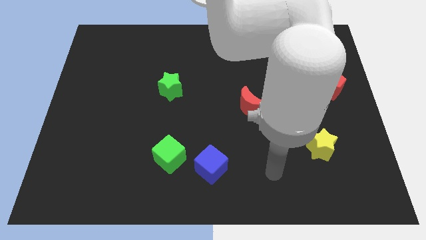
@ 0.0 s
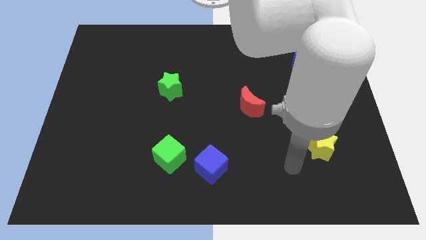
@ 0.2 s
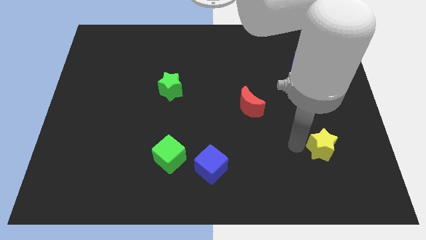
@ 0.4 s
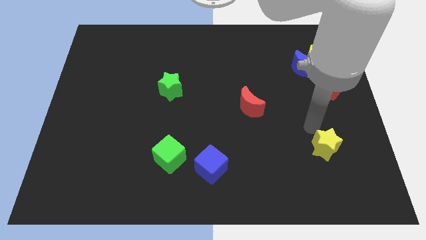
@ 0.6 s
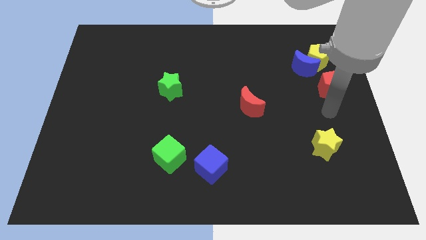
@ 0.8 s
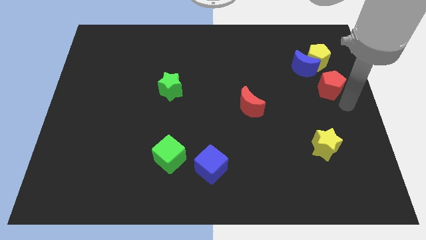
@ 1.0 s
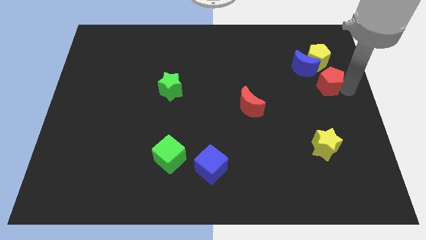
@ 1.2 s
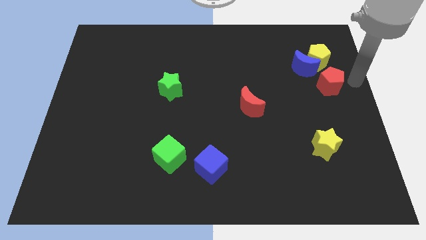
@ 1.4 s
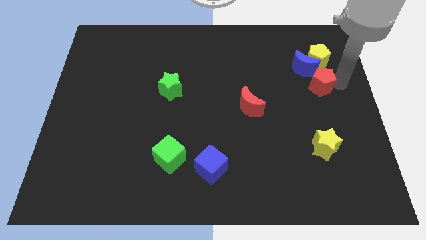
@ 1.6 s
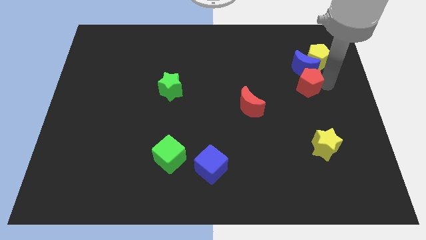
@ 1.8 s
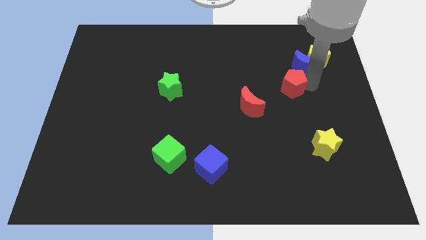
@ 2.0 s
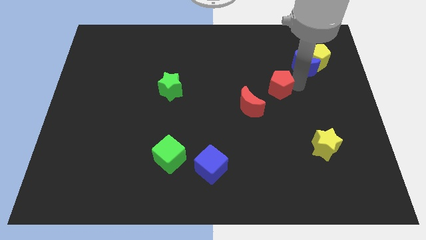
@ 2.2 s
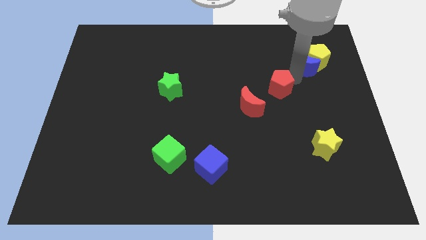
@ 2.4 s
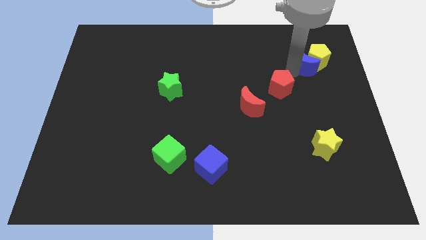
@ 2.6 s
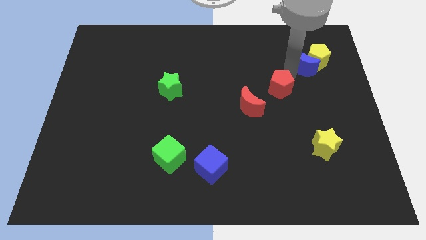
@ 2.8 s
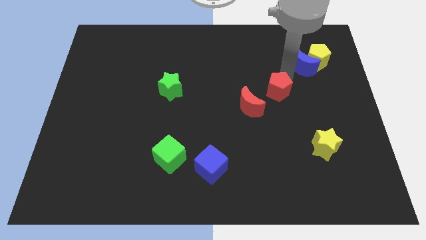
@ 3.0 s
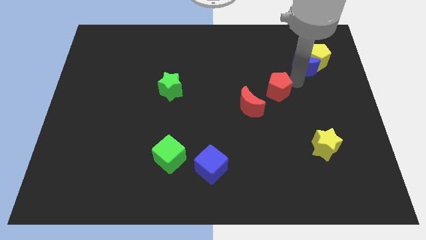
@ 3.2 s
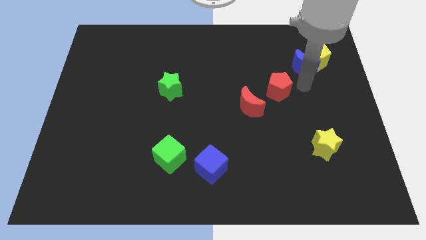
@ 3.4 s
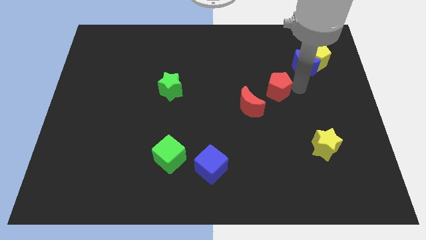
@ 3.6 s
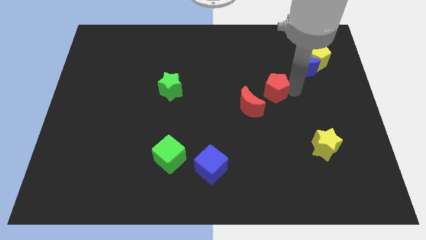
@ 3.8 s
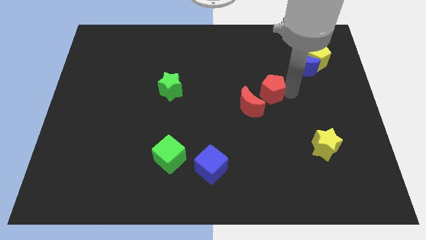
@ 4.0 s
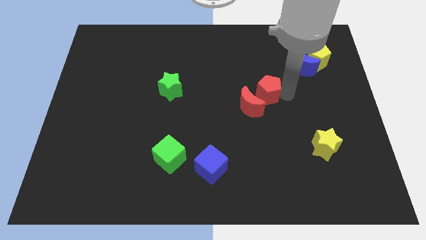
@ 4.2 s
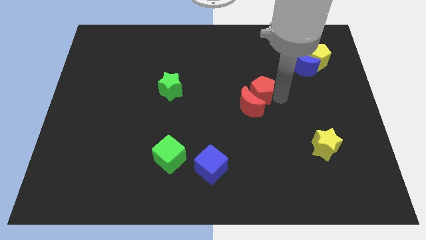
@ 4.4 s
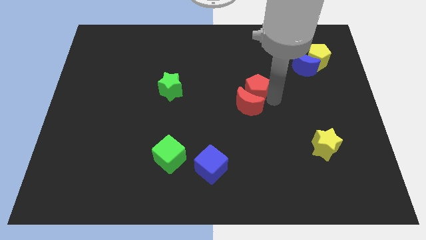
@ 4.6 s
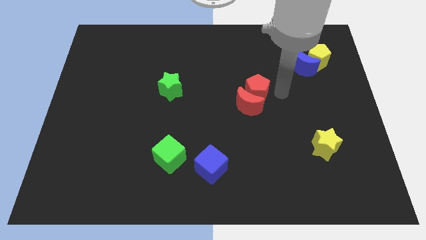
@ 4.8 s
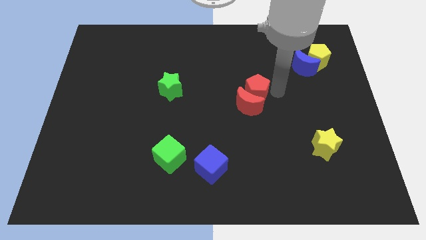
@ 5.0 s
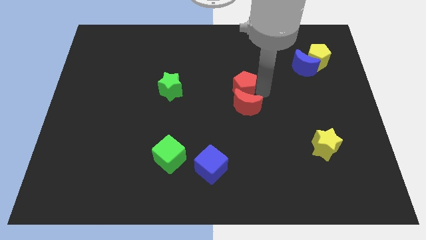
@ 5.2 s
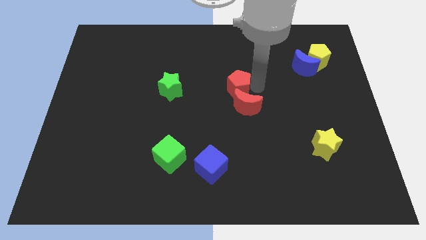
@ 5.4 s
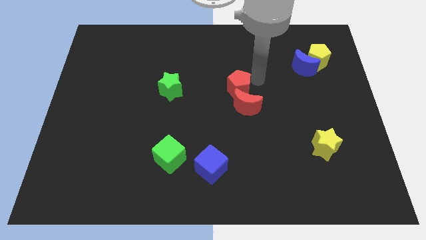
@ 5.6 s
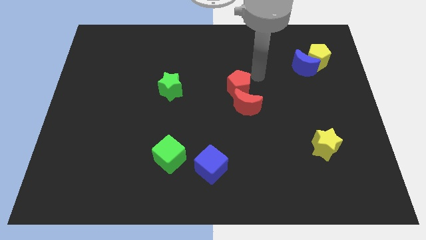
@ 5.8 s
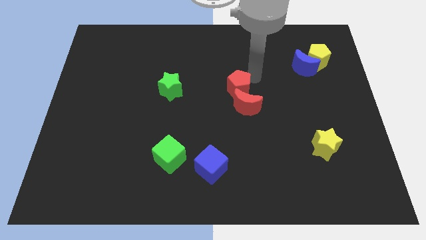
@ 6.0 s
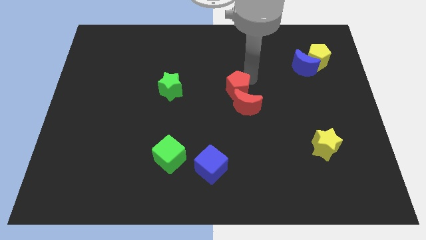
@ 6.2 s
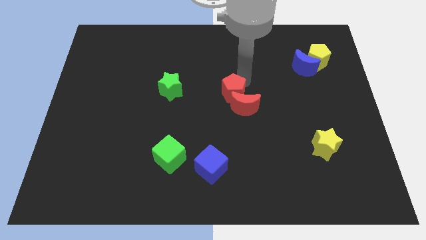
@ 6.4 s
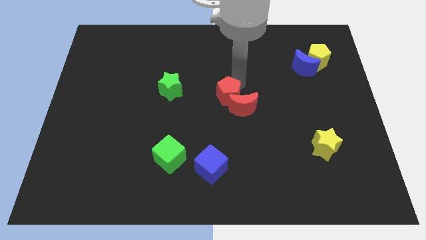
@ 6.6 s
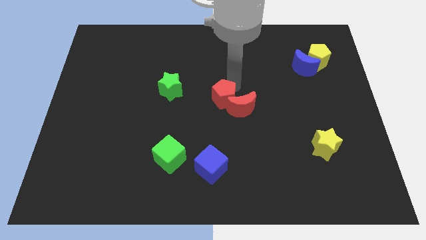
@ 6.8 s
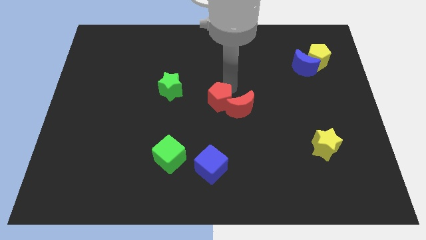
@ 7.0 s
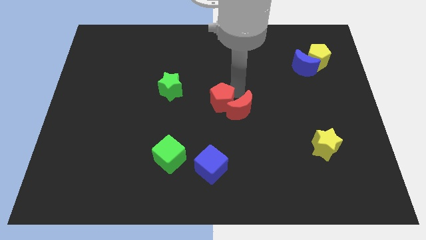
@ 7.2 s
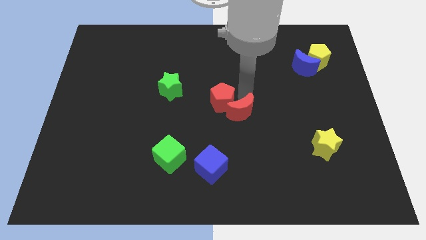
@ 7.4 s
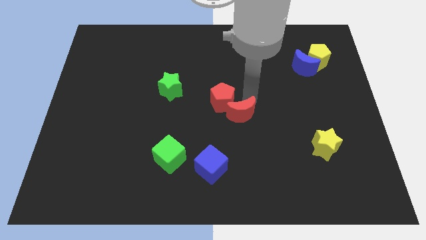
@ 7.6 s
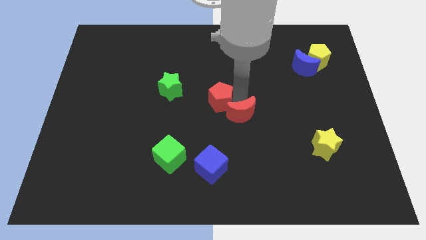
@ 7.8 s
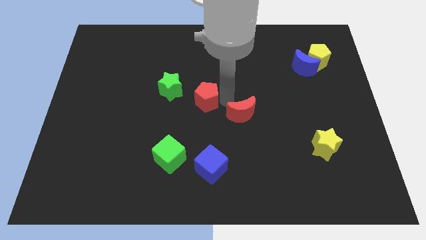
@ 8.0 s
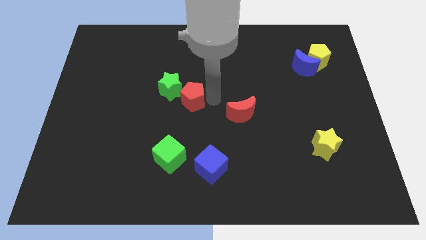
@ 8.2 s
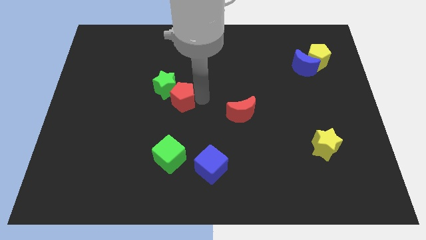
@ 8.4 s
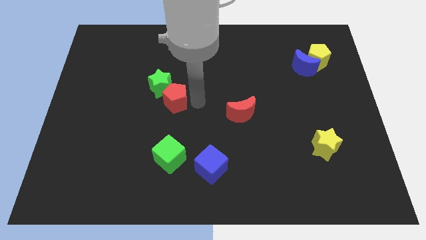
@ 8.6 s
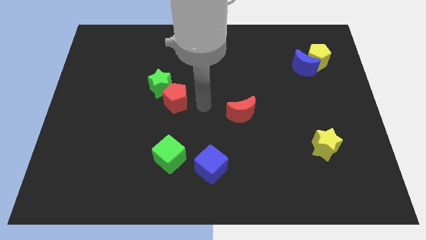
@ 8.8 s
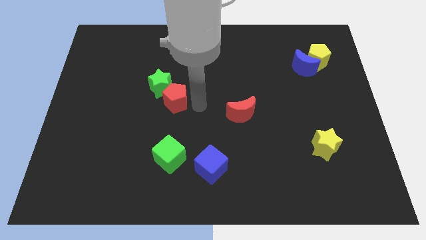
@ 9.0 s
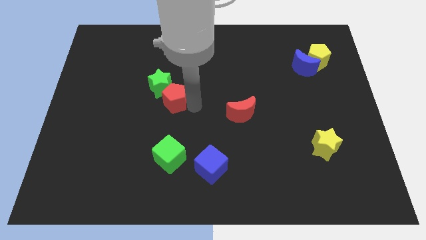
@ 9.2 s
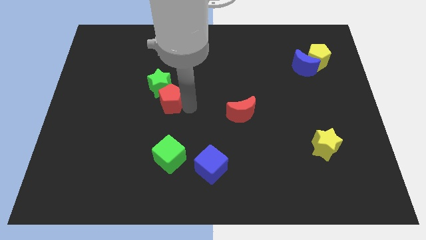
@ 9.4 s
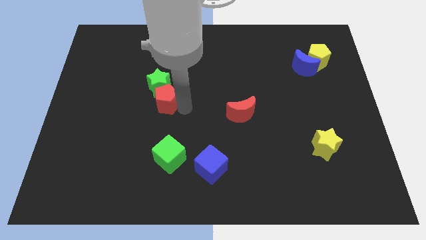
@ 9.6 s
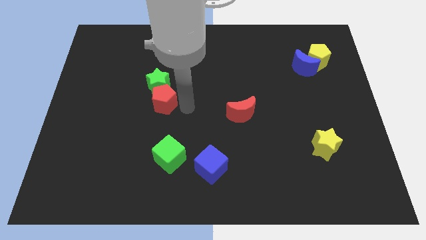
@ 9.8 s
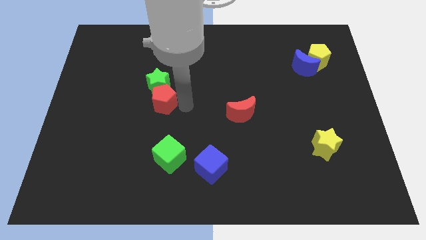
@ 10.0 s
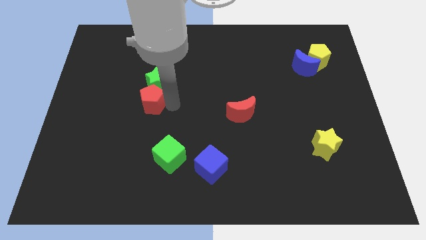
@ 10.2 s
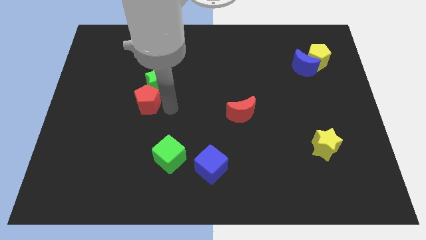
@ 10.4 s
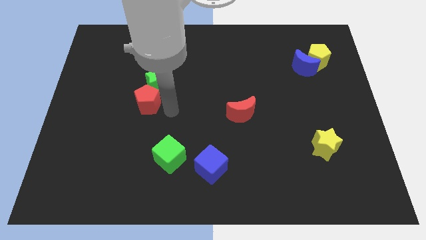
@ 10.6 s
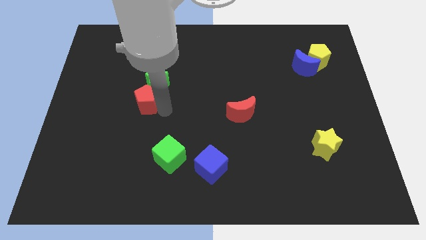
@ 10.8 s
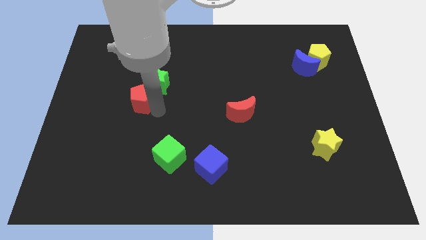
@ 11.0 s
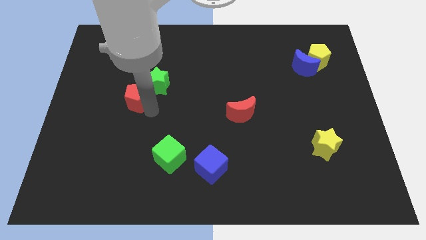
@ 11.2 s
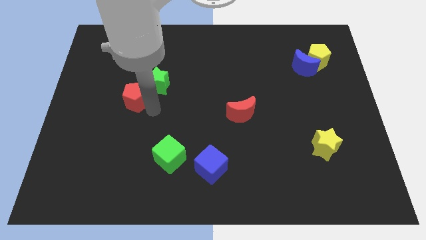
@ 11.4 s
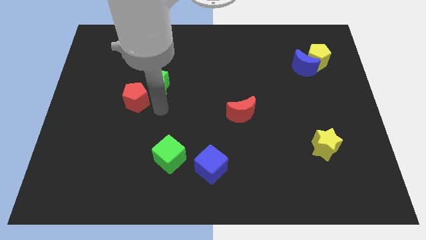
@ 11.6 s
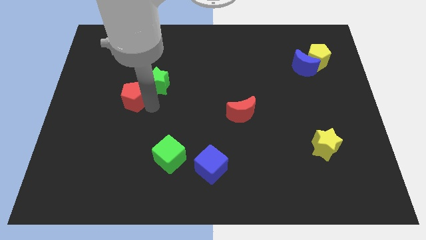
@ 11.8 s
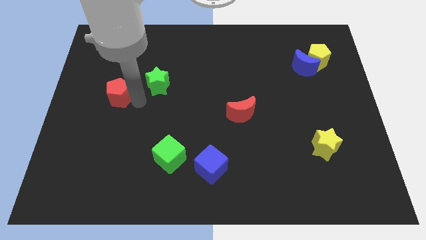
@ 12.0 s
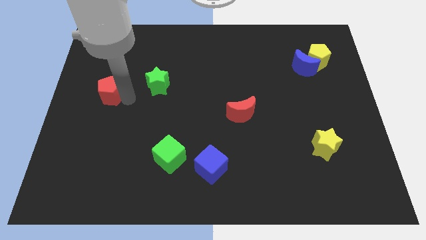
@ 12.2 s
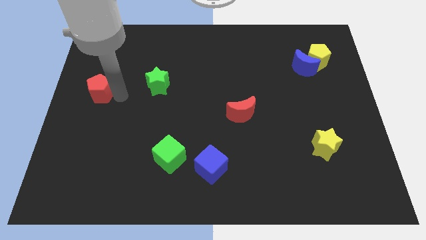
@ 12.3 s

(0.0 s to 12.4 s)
move the red pentagon to the left side of the board
